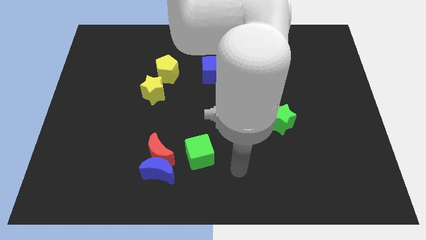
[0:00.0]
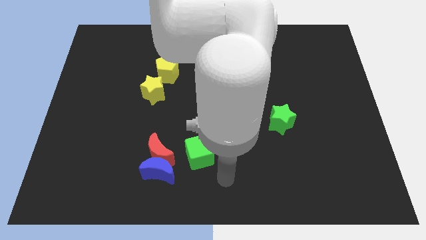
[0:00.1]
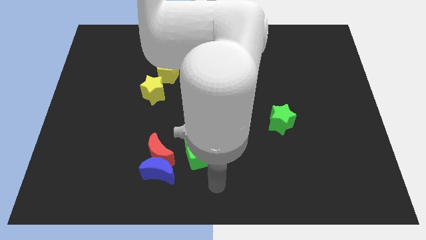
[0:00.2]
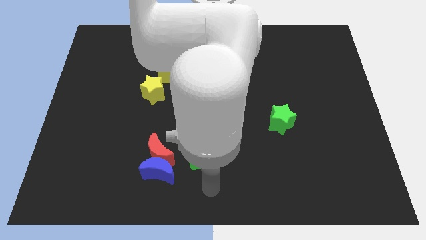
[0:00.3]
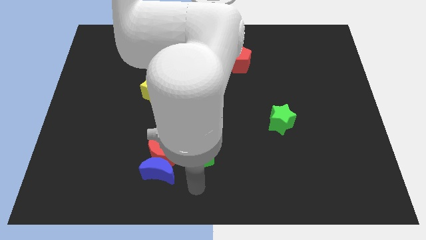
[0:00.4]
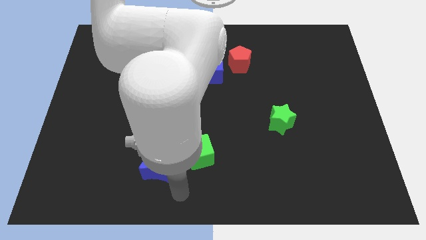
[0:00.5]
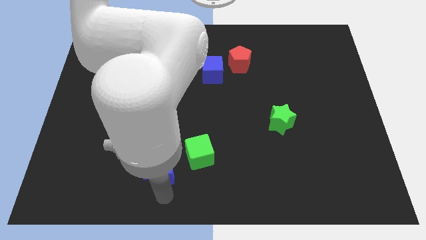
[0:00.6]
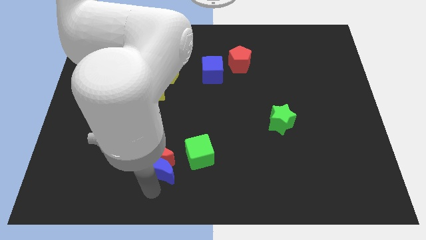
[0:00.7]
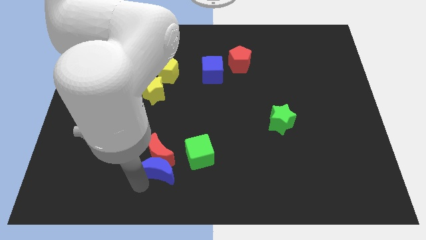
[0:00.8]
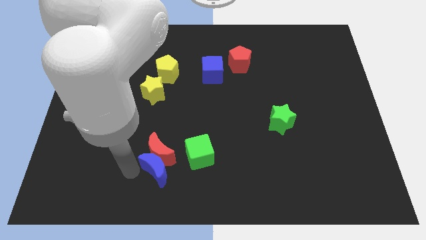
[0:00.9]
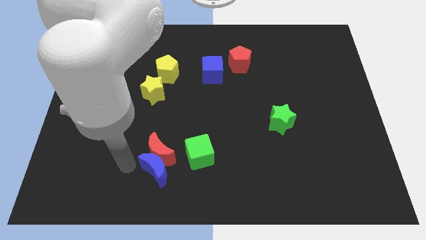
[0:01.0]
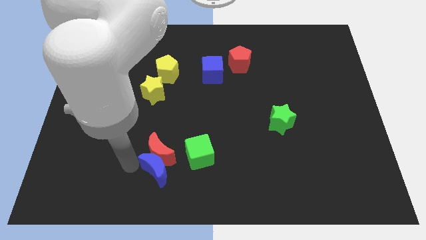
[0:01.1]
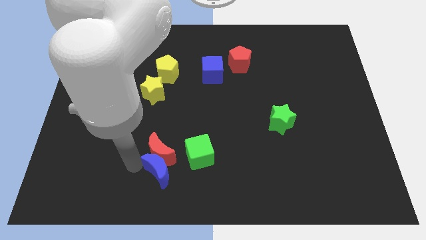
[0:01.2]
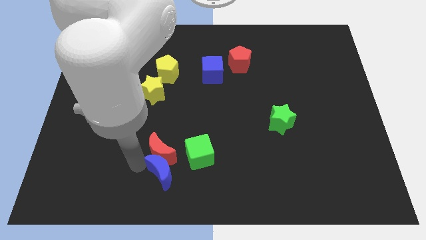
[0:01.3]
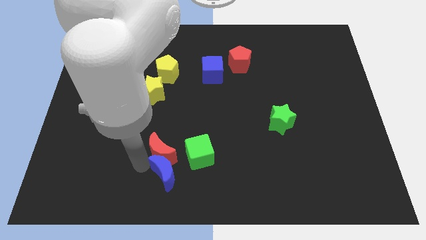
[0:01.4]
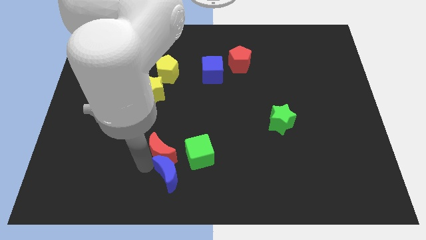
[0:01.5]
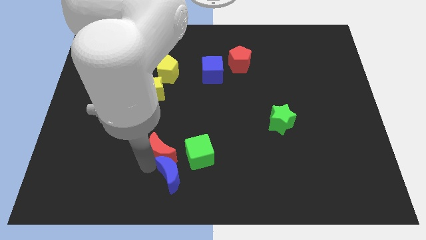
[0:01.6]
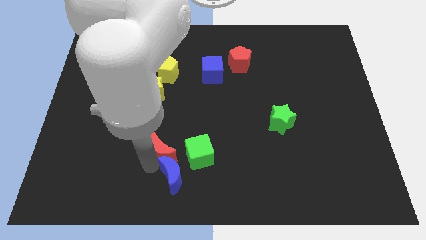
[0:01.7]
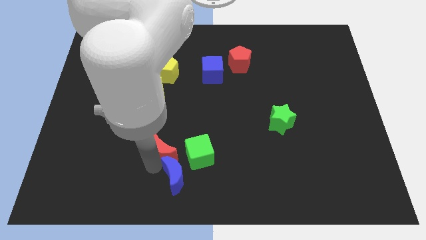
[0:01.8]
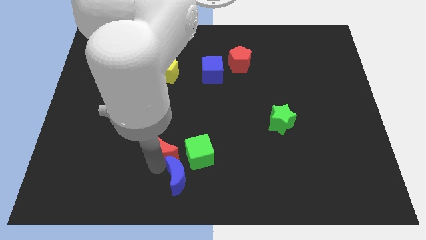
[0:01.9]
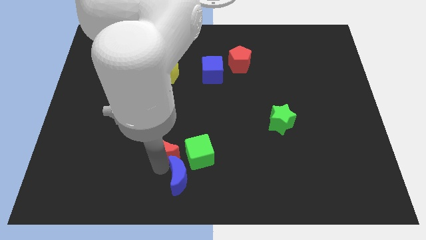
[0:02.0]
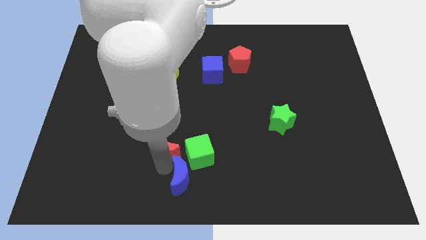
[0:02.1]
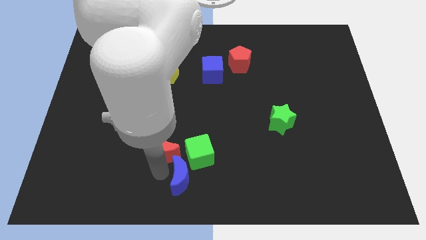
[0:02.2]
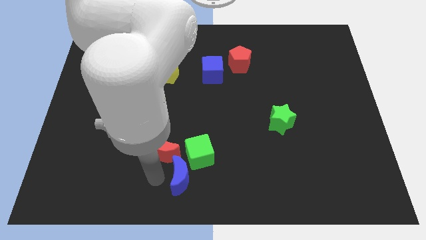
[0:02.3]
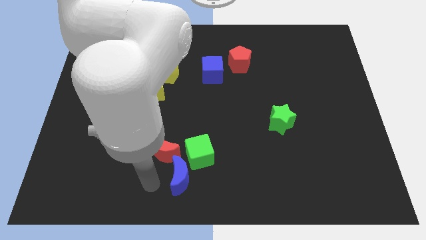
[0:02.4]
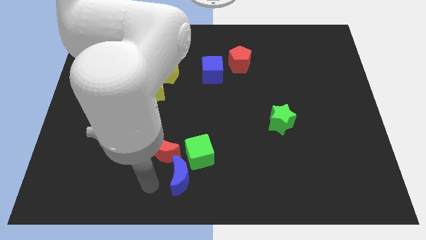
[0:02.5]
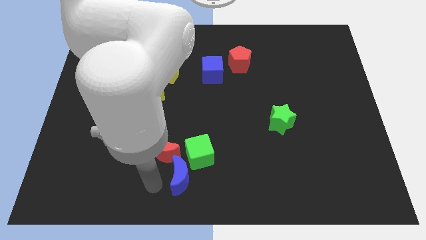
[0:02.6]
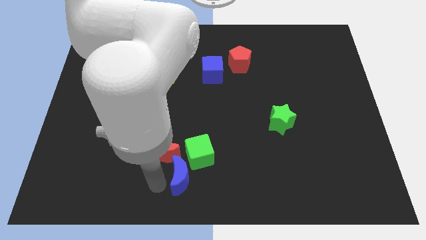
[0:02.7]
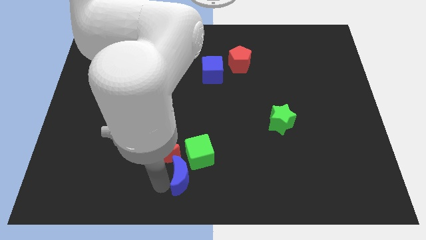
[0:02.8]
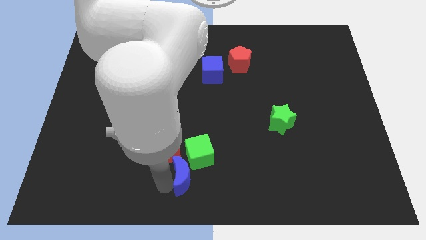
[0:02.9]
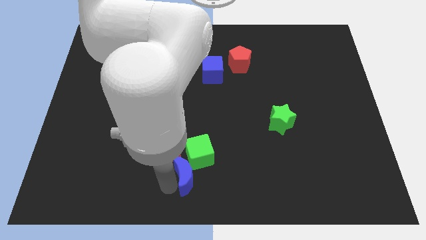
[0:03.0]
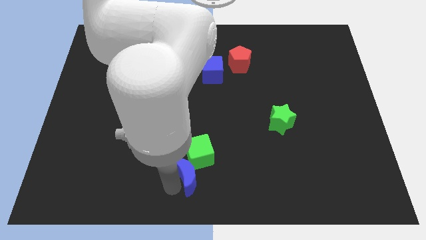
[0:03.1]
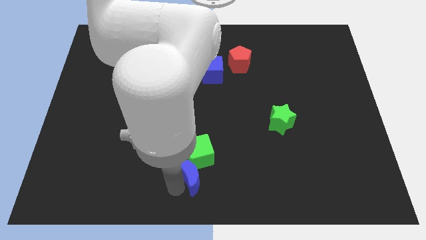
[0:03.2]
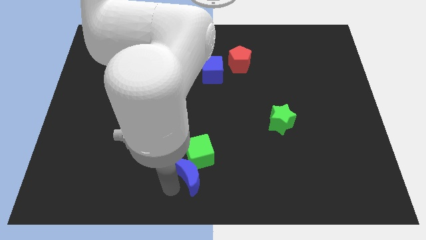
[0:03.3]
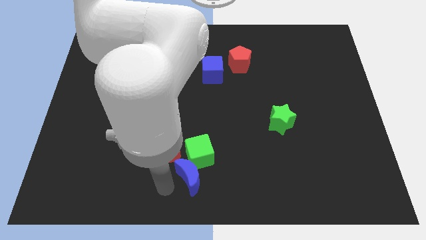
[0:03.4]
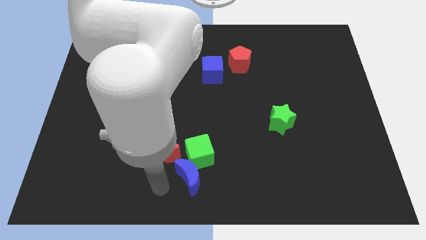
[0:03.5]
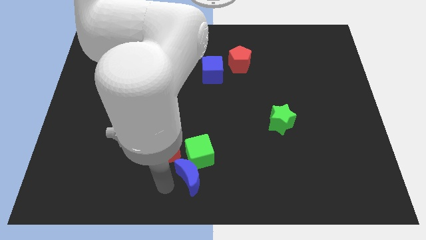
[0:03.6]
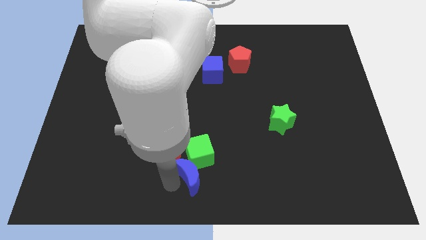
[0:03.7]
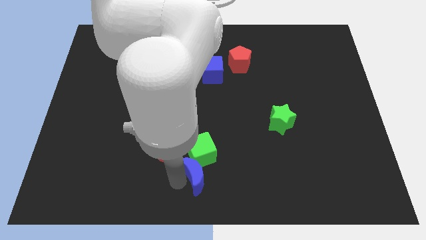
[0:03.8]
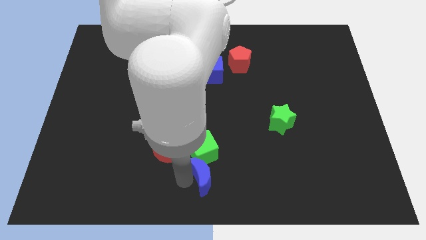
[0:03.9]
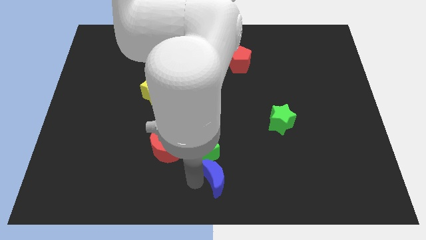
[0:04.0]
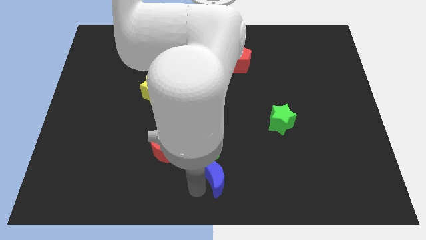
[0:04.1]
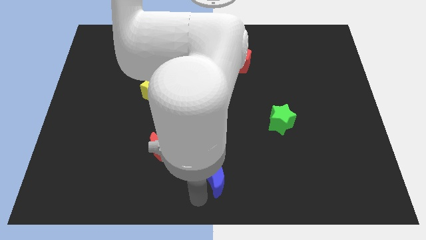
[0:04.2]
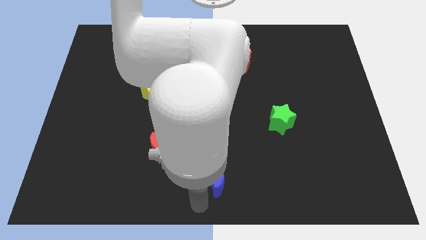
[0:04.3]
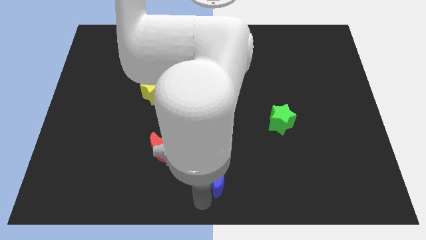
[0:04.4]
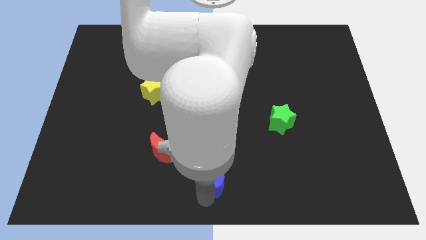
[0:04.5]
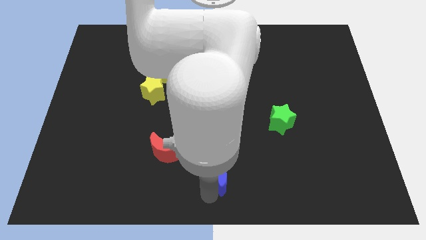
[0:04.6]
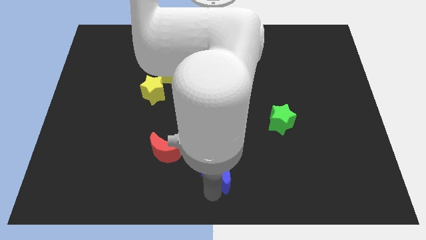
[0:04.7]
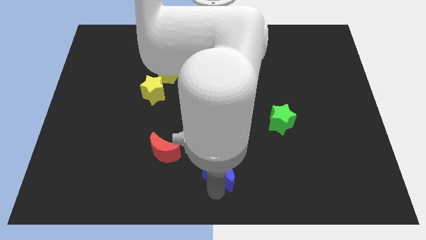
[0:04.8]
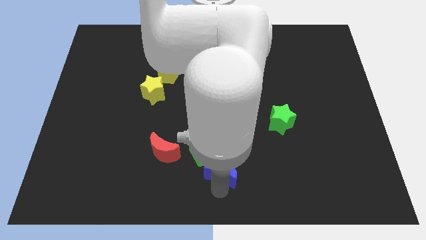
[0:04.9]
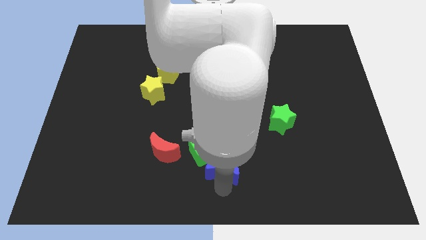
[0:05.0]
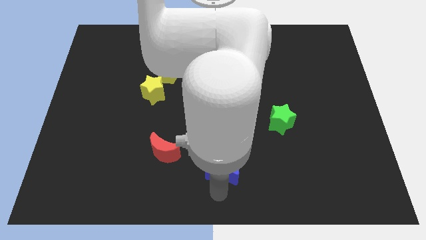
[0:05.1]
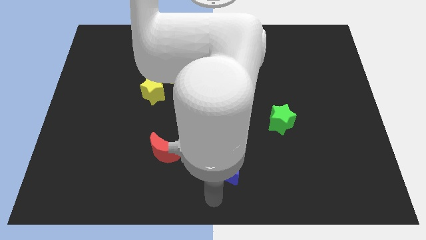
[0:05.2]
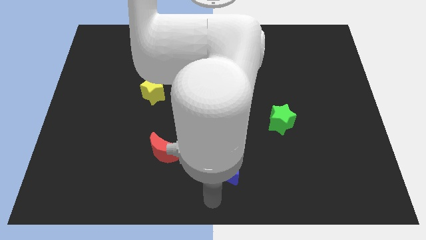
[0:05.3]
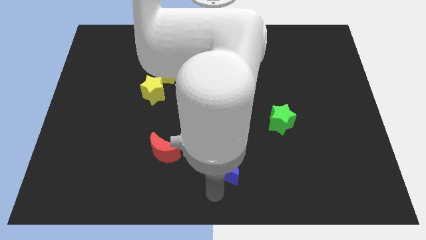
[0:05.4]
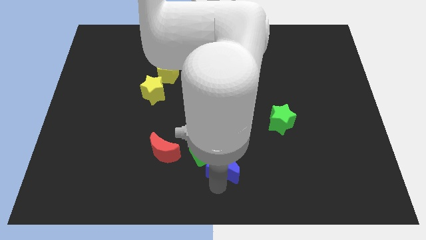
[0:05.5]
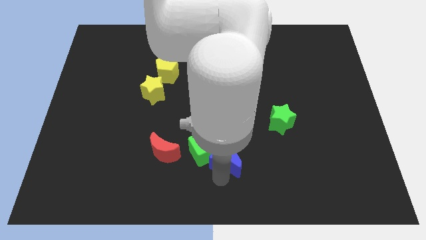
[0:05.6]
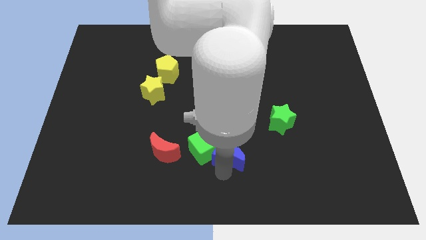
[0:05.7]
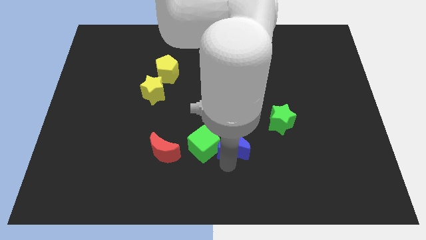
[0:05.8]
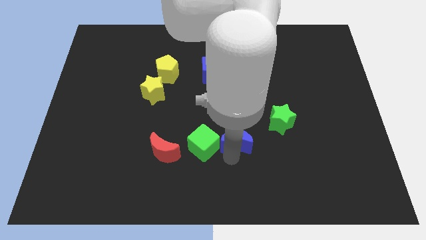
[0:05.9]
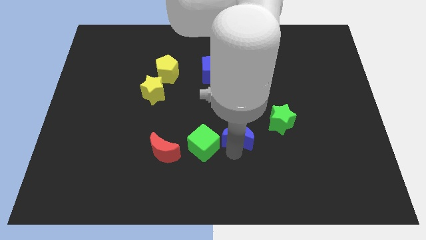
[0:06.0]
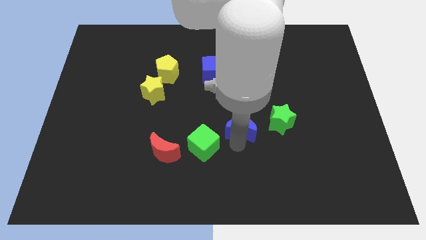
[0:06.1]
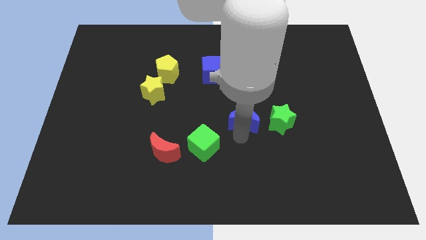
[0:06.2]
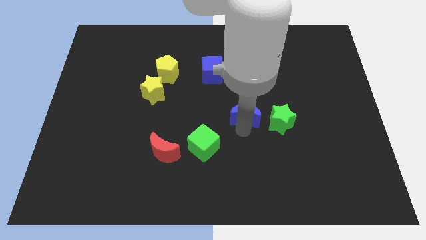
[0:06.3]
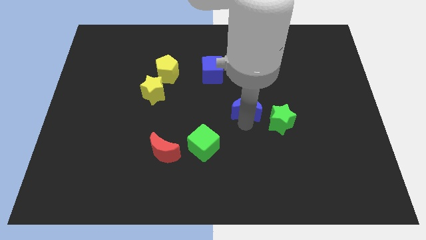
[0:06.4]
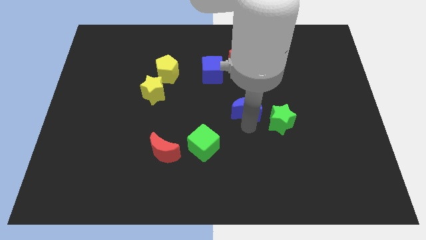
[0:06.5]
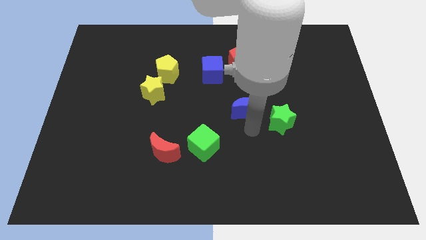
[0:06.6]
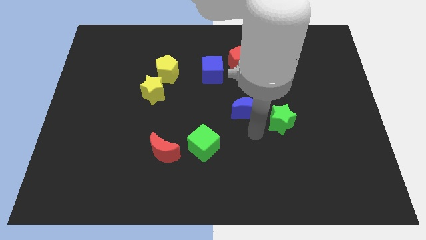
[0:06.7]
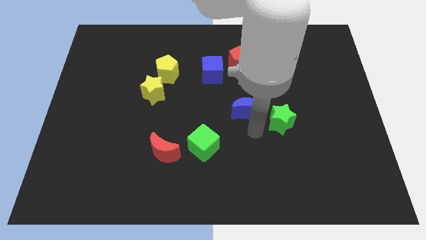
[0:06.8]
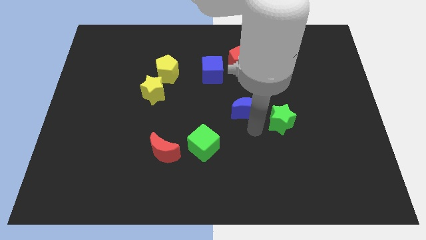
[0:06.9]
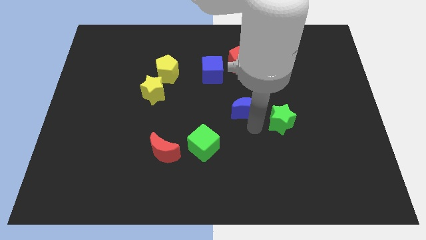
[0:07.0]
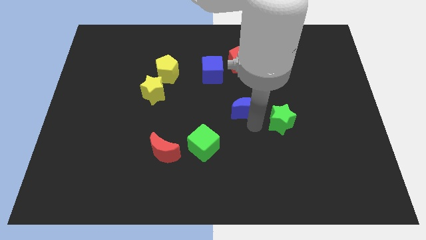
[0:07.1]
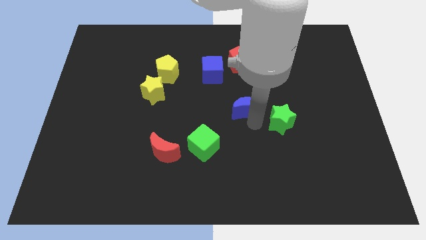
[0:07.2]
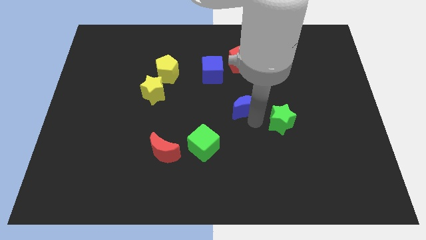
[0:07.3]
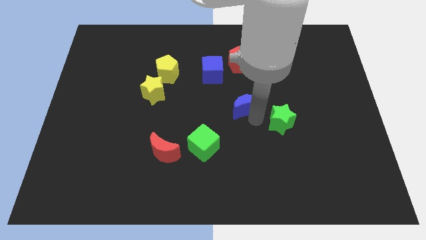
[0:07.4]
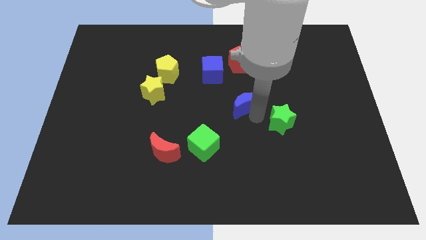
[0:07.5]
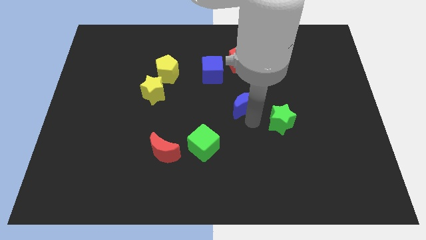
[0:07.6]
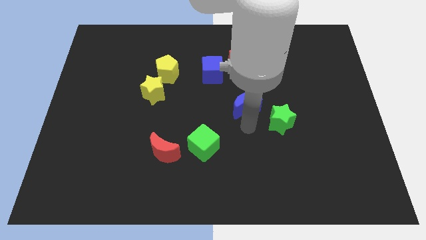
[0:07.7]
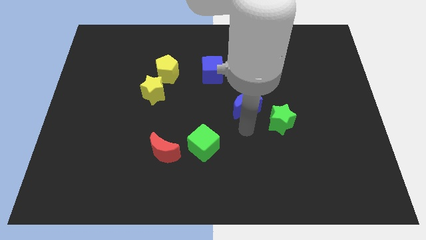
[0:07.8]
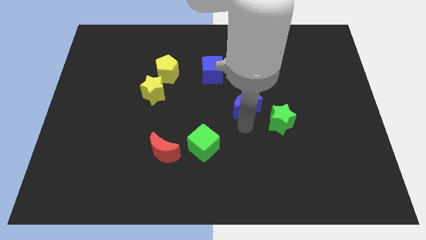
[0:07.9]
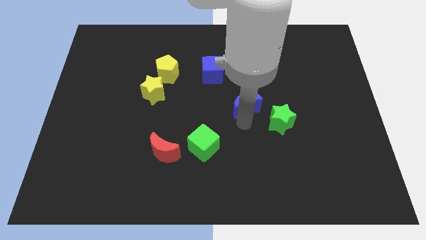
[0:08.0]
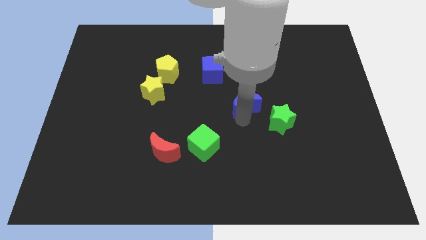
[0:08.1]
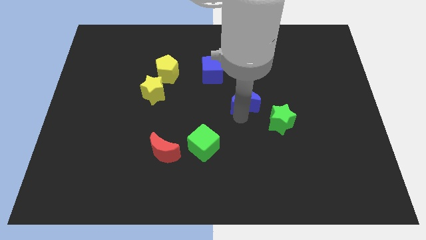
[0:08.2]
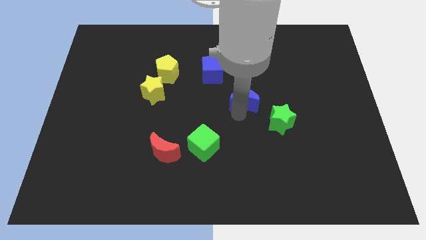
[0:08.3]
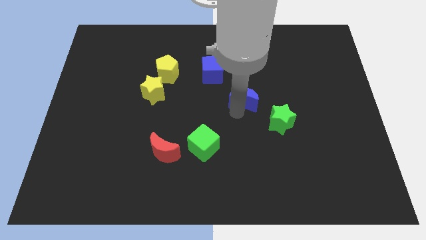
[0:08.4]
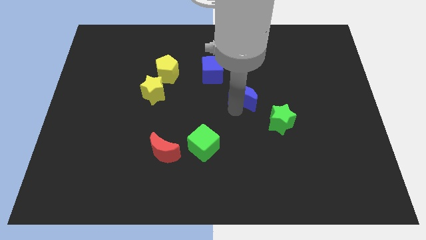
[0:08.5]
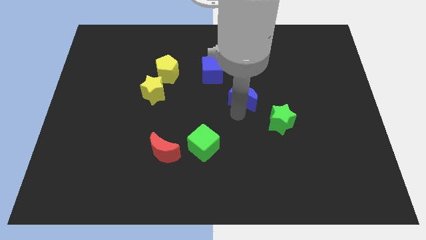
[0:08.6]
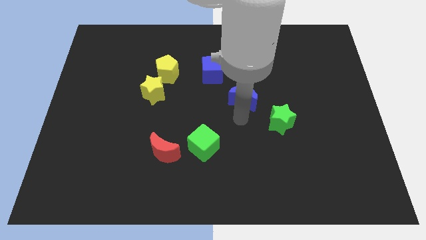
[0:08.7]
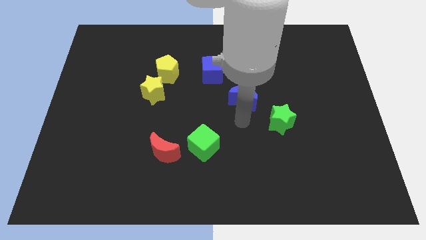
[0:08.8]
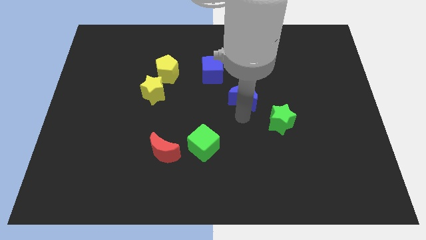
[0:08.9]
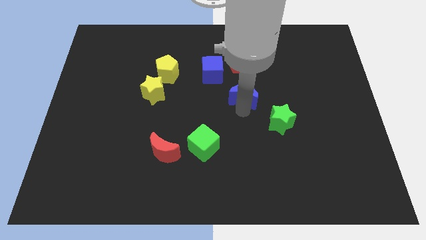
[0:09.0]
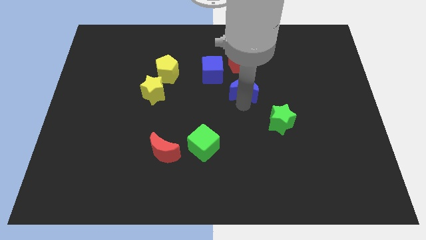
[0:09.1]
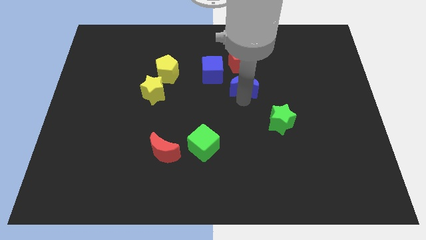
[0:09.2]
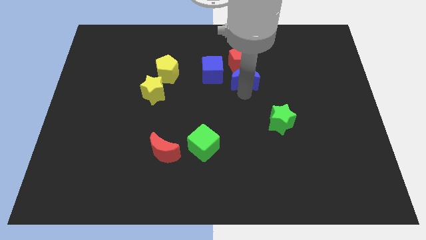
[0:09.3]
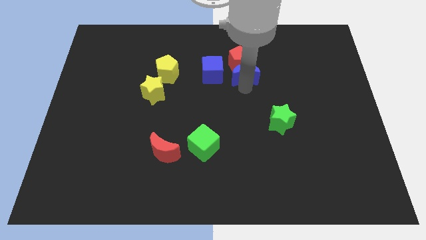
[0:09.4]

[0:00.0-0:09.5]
push the blue moon towards the red pentagon
